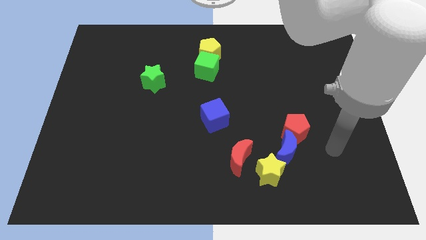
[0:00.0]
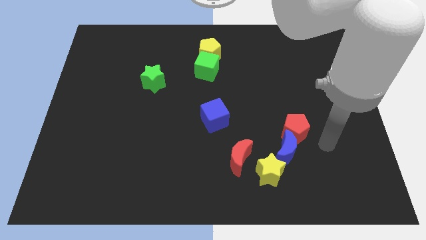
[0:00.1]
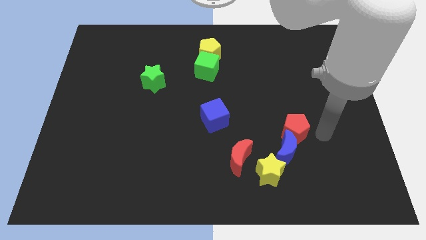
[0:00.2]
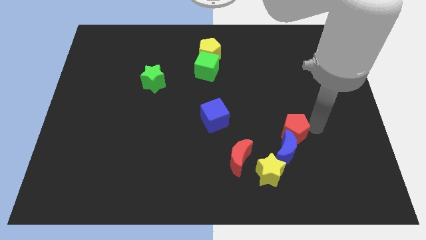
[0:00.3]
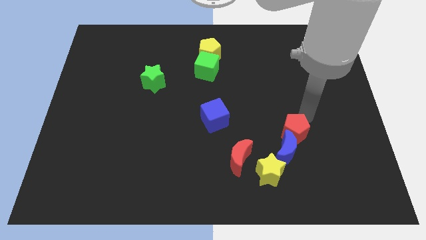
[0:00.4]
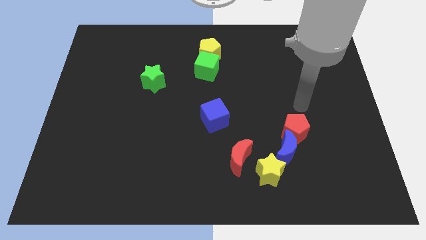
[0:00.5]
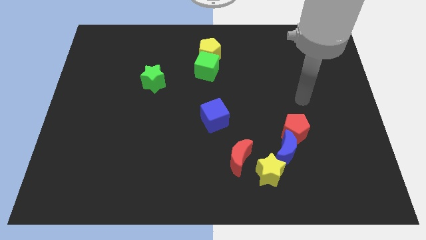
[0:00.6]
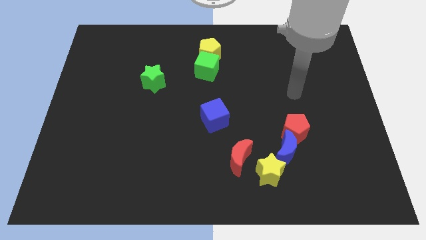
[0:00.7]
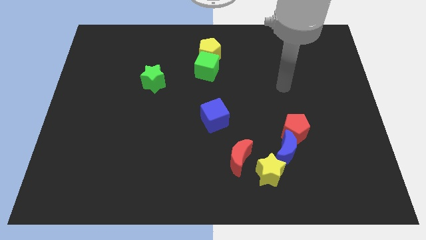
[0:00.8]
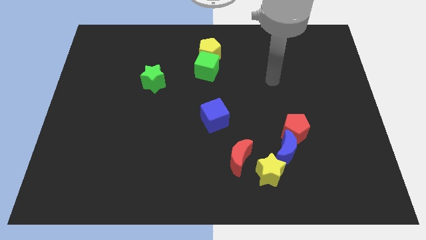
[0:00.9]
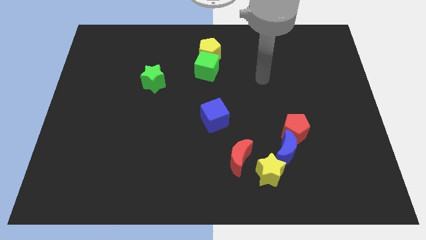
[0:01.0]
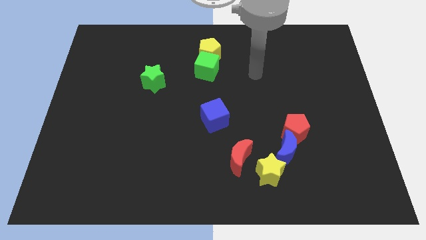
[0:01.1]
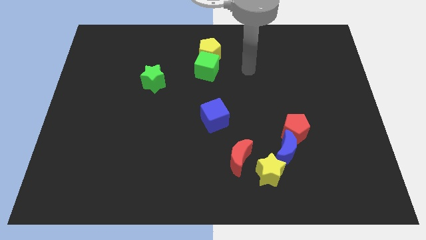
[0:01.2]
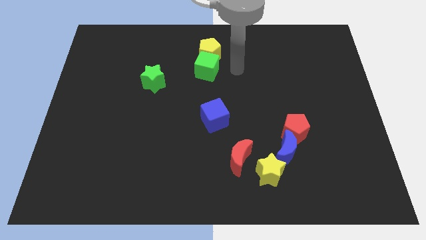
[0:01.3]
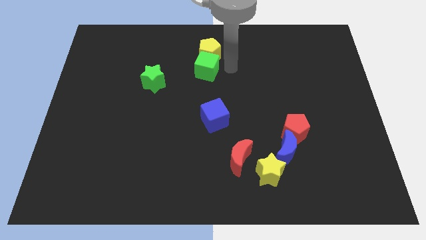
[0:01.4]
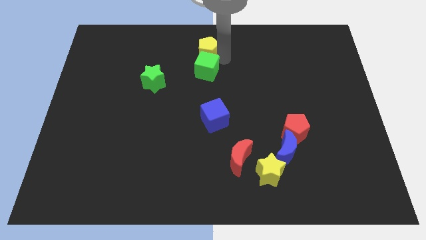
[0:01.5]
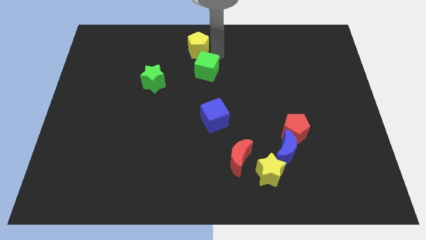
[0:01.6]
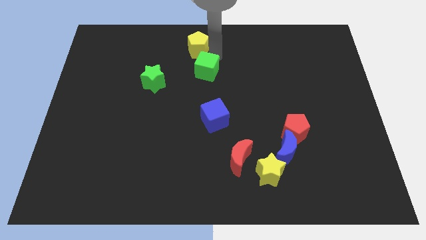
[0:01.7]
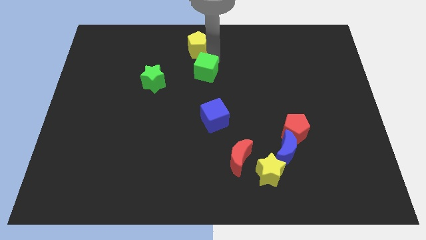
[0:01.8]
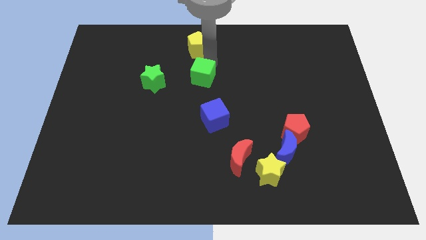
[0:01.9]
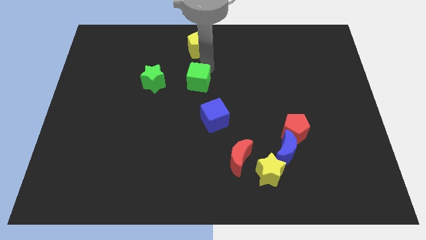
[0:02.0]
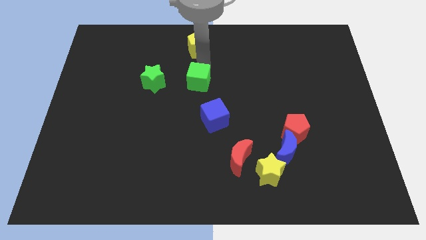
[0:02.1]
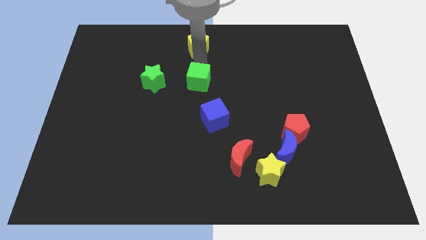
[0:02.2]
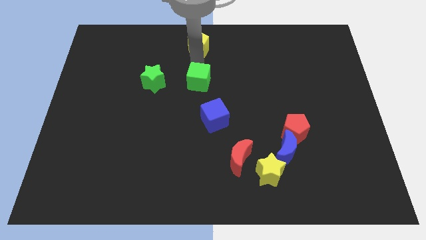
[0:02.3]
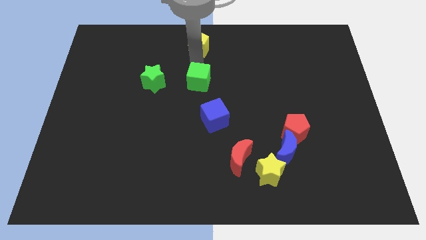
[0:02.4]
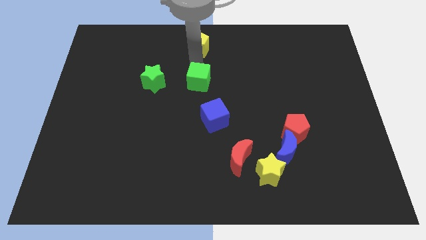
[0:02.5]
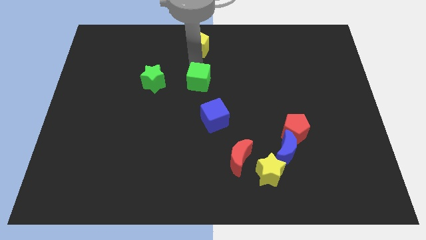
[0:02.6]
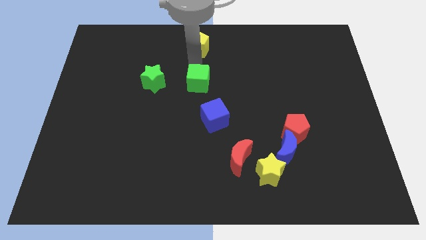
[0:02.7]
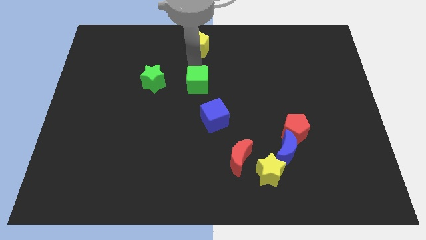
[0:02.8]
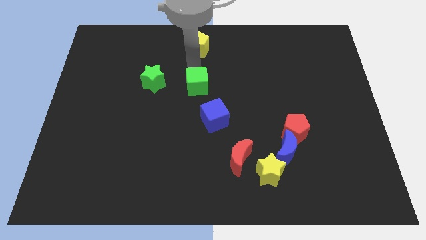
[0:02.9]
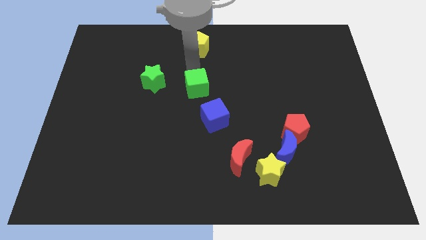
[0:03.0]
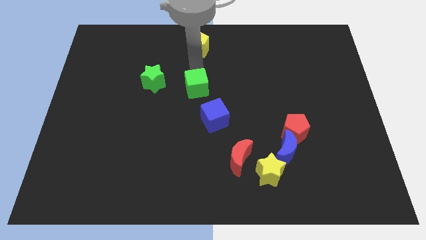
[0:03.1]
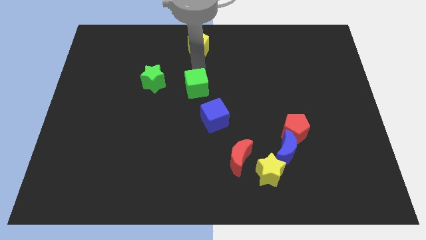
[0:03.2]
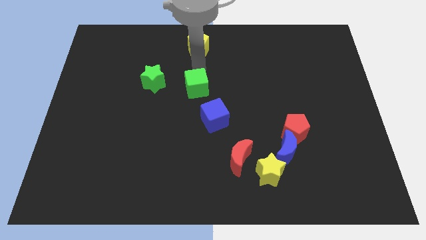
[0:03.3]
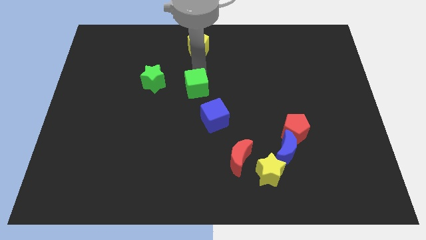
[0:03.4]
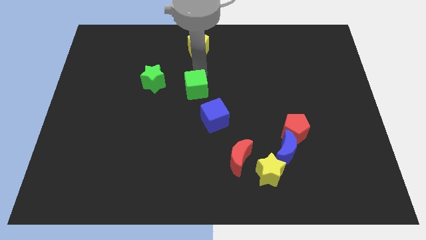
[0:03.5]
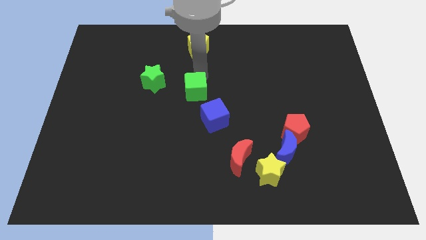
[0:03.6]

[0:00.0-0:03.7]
slightly move the green cube down

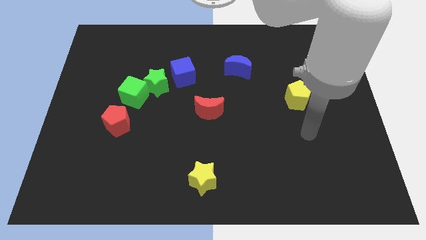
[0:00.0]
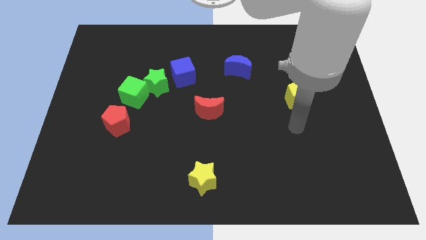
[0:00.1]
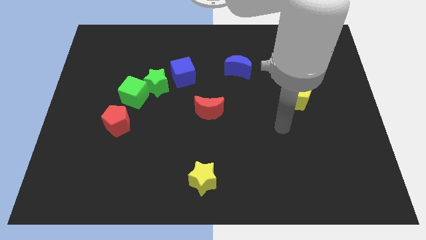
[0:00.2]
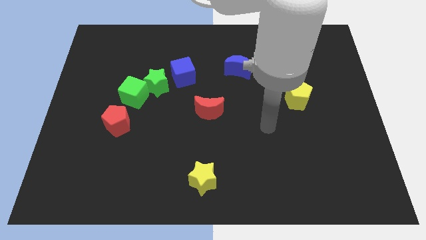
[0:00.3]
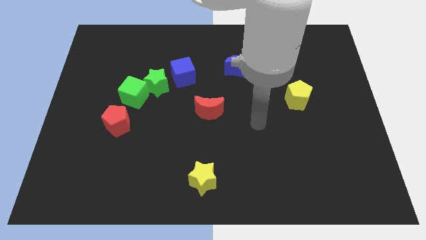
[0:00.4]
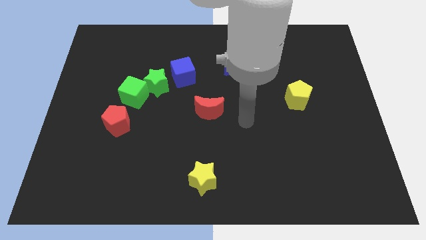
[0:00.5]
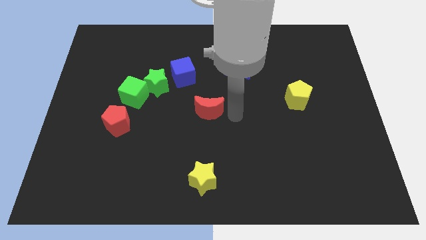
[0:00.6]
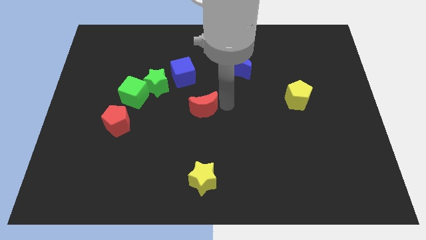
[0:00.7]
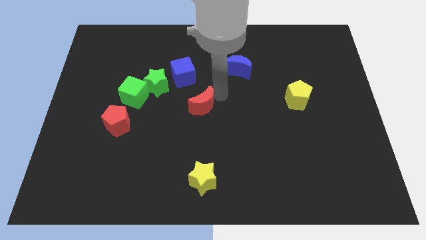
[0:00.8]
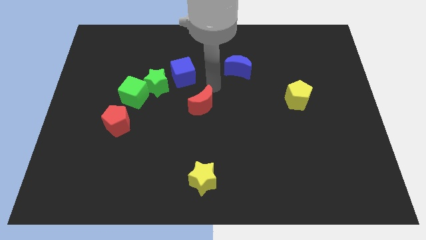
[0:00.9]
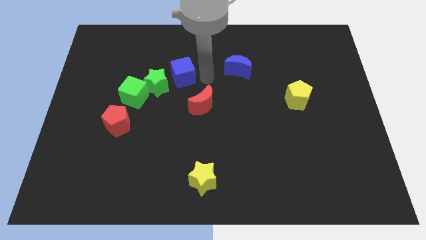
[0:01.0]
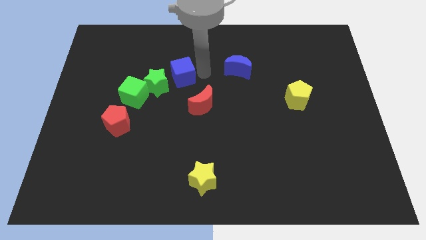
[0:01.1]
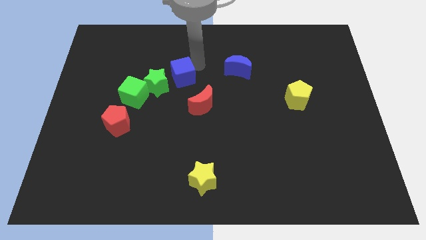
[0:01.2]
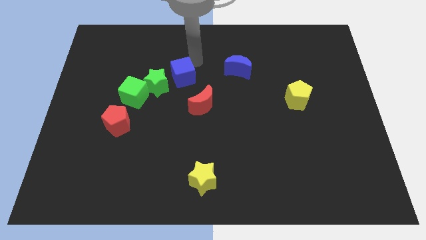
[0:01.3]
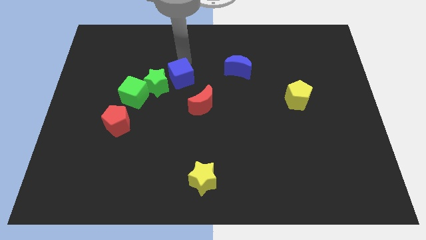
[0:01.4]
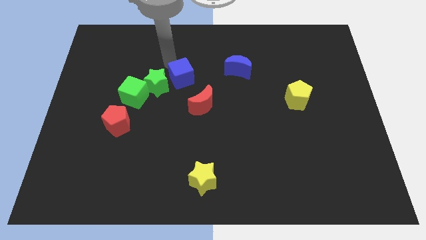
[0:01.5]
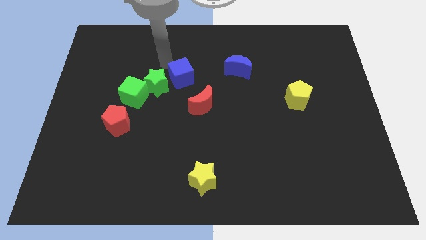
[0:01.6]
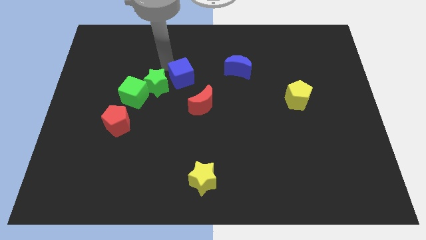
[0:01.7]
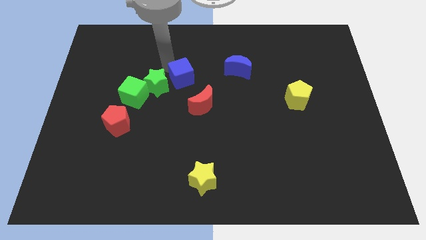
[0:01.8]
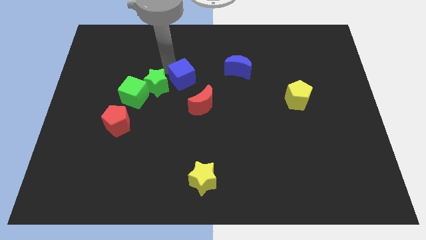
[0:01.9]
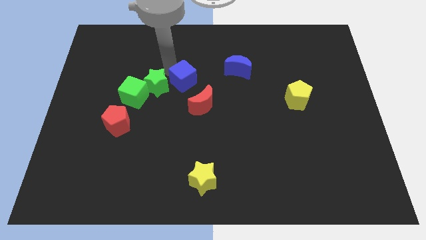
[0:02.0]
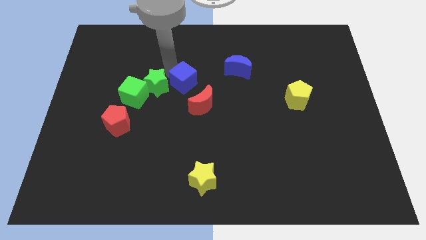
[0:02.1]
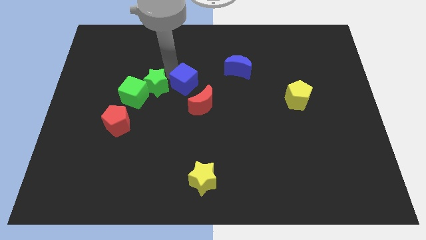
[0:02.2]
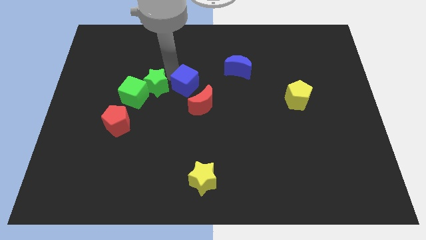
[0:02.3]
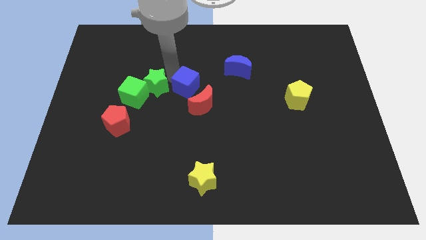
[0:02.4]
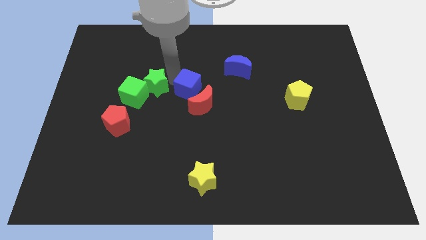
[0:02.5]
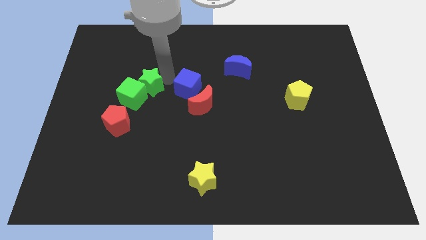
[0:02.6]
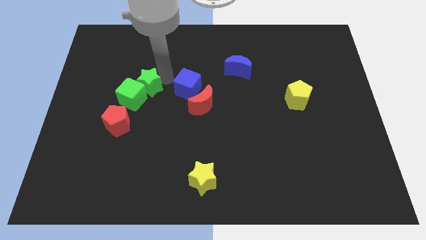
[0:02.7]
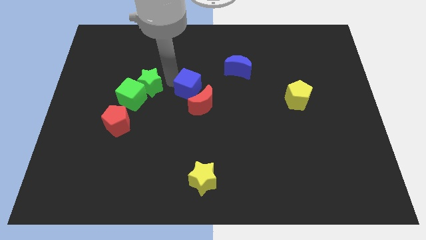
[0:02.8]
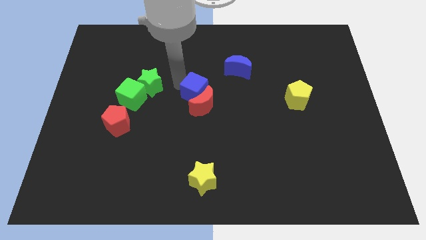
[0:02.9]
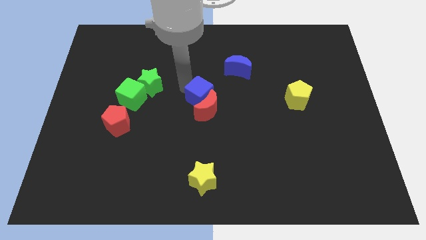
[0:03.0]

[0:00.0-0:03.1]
slightly move the blue cube down and to the right diagonally

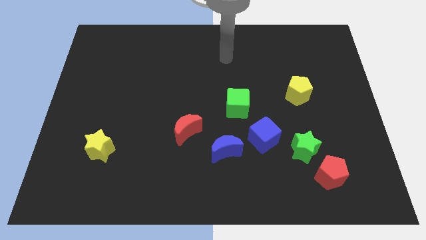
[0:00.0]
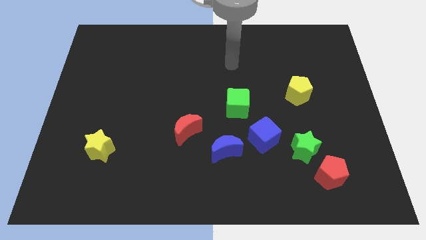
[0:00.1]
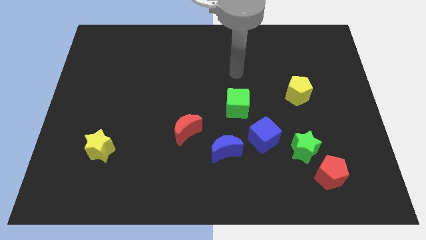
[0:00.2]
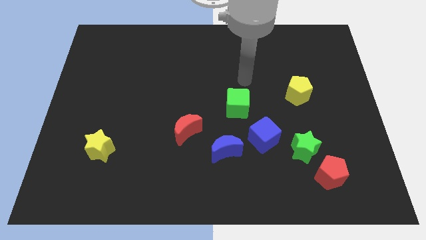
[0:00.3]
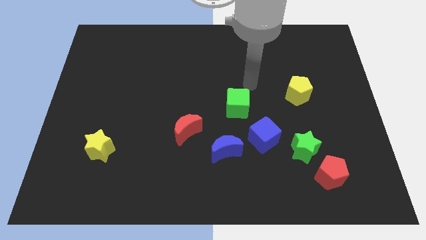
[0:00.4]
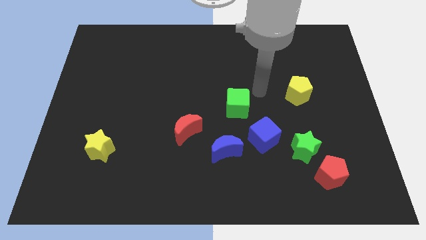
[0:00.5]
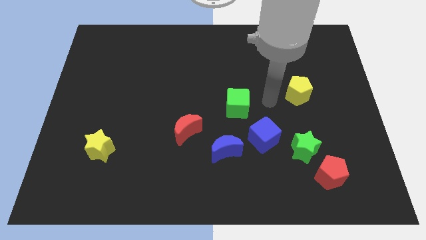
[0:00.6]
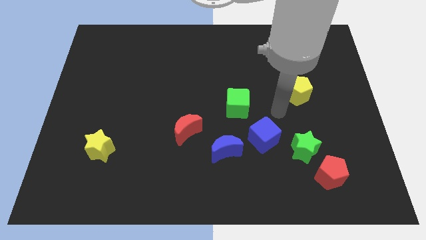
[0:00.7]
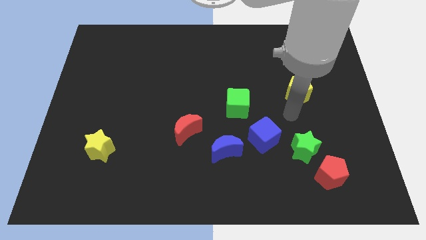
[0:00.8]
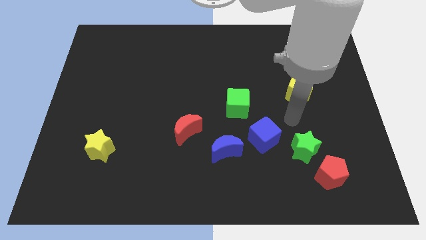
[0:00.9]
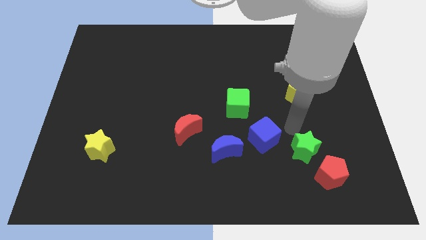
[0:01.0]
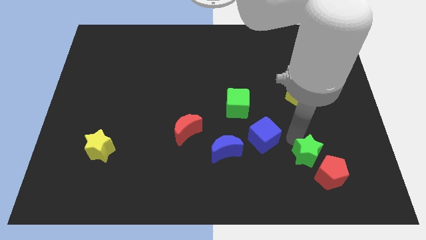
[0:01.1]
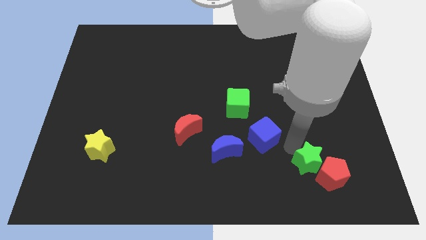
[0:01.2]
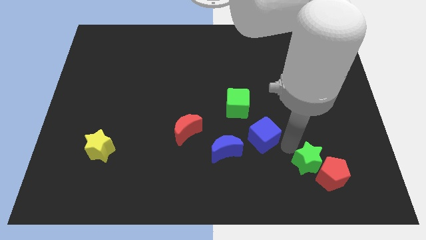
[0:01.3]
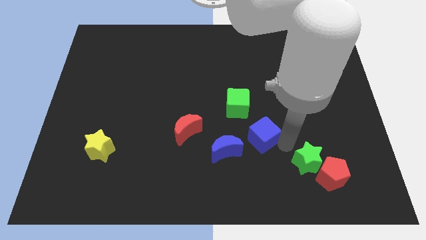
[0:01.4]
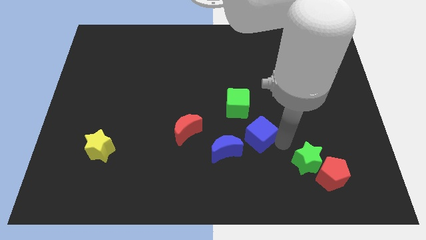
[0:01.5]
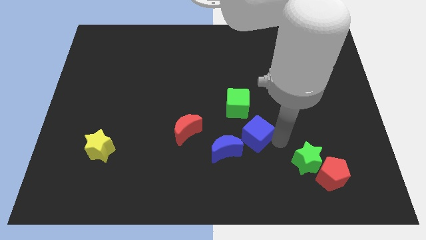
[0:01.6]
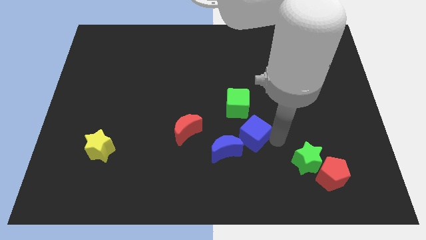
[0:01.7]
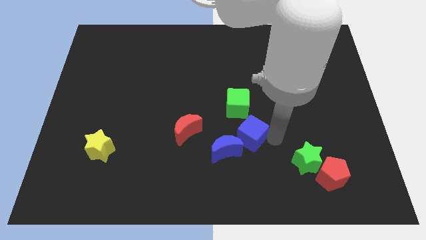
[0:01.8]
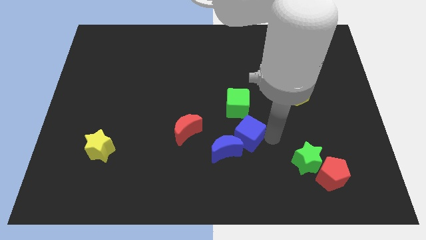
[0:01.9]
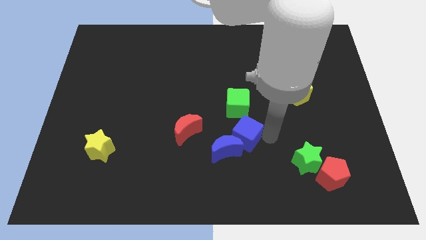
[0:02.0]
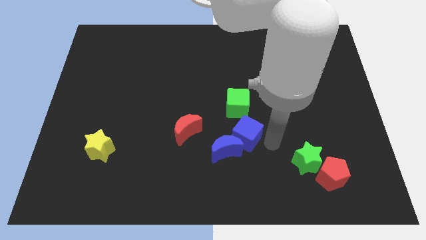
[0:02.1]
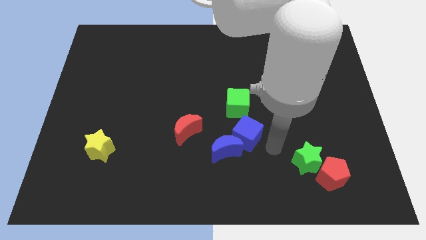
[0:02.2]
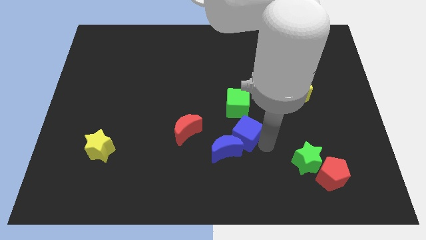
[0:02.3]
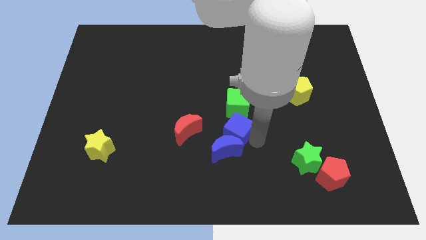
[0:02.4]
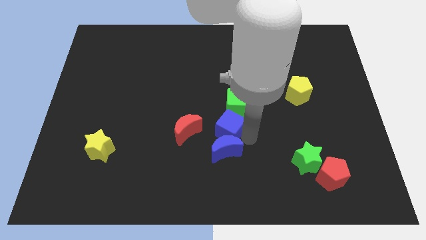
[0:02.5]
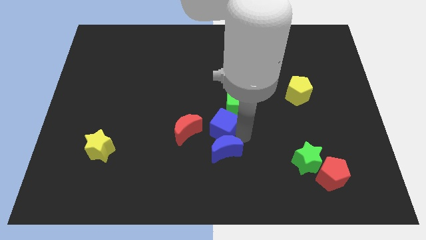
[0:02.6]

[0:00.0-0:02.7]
push the blue cube slightly up and then to the left
